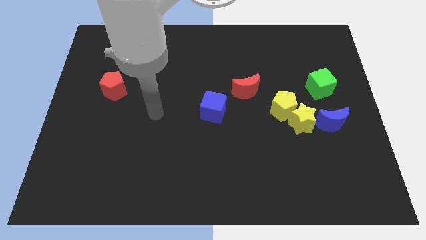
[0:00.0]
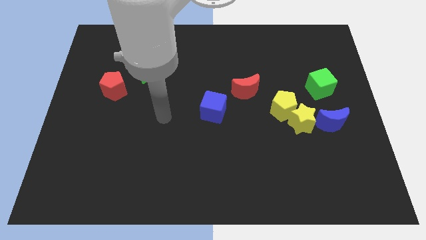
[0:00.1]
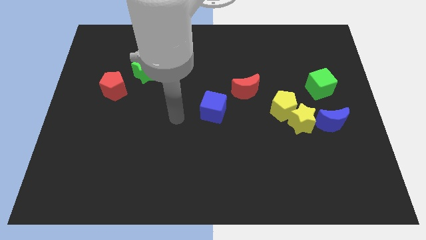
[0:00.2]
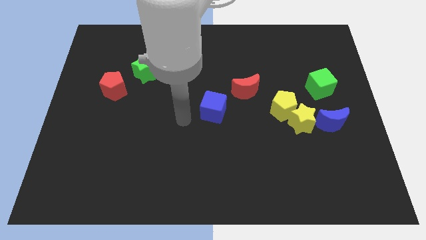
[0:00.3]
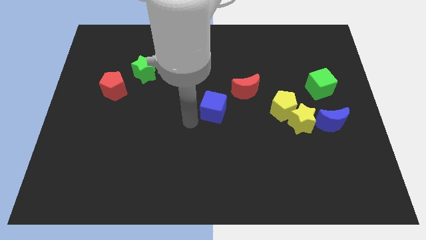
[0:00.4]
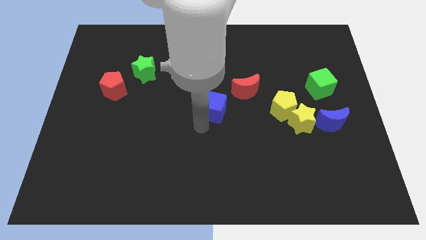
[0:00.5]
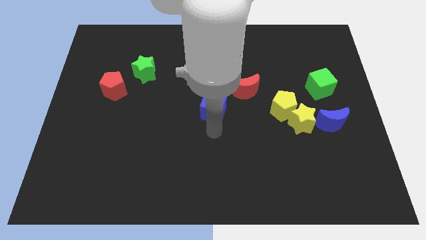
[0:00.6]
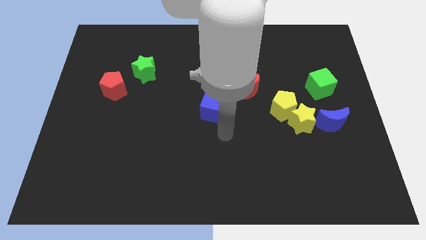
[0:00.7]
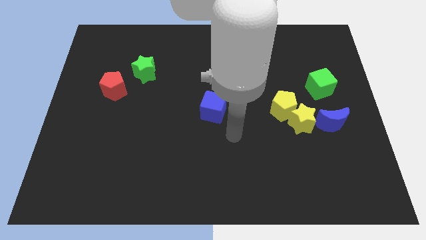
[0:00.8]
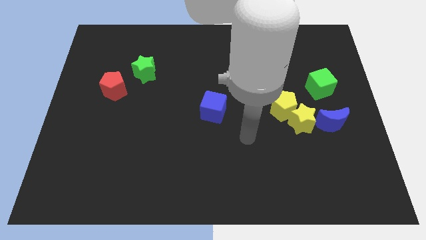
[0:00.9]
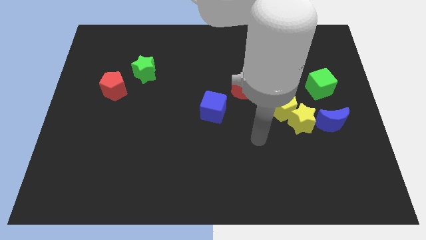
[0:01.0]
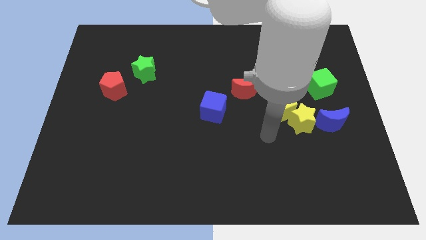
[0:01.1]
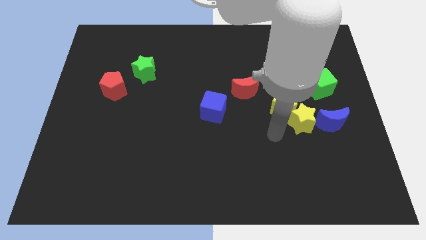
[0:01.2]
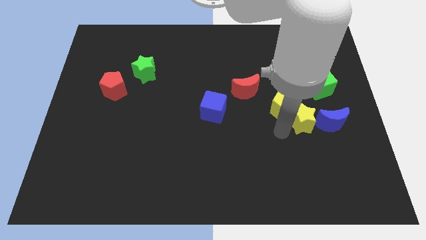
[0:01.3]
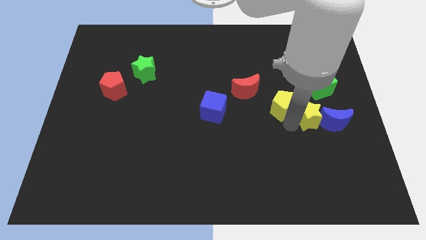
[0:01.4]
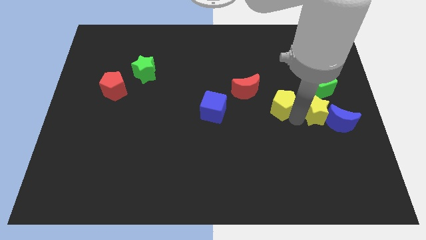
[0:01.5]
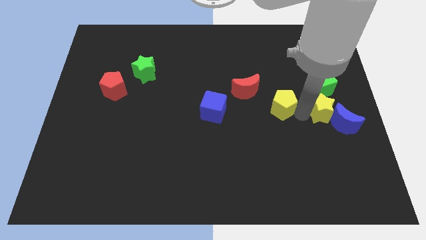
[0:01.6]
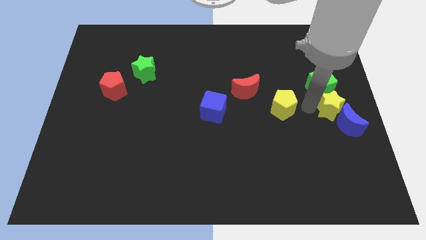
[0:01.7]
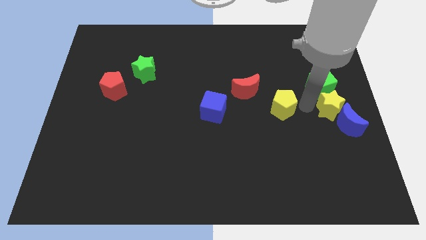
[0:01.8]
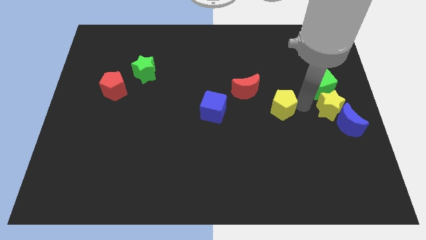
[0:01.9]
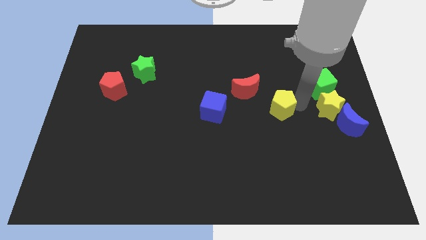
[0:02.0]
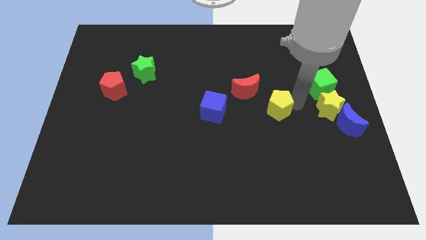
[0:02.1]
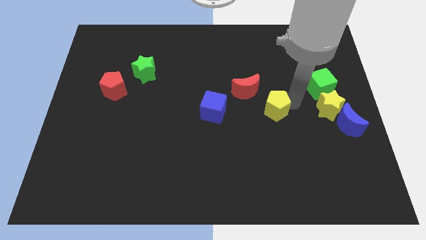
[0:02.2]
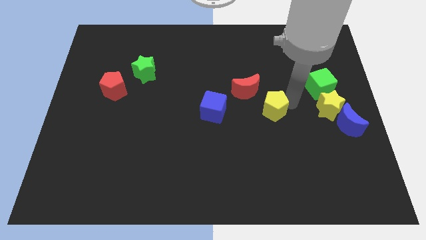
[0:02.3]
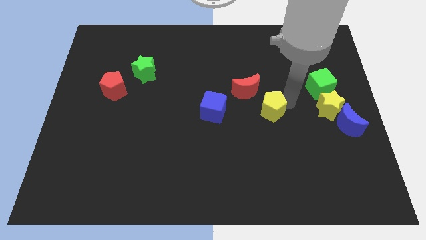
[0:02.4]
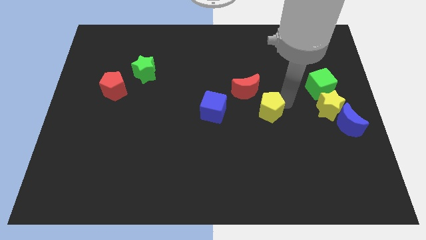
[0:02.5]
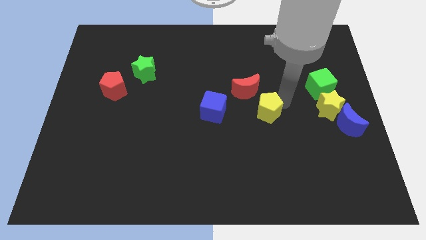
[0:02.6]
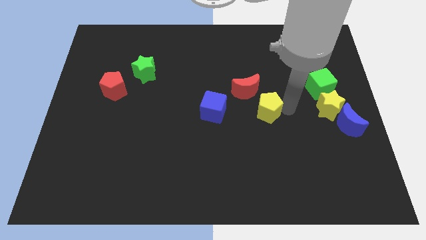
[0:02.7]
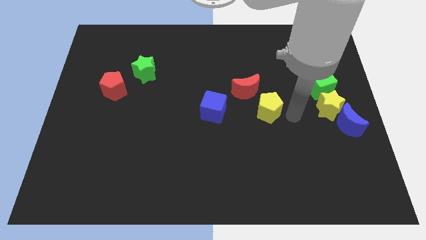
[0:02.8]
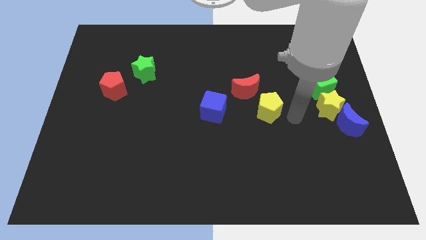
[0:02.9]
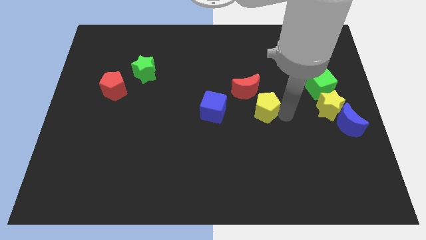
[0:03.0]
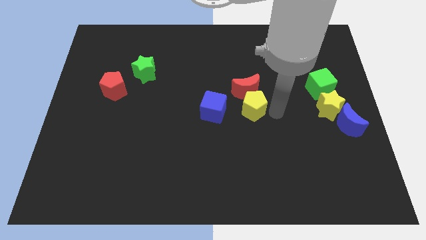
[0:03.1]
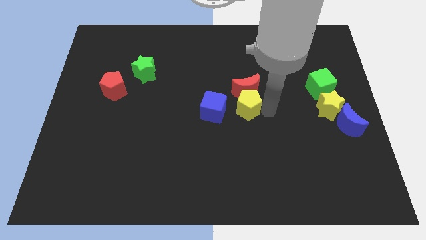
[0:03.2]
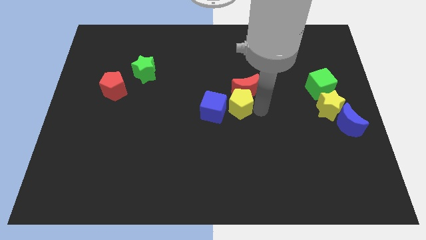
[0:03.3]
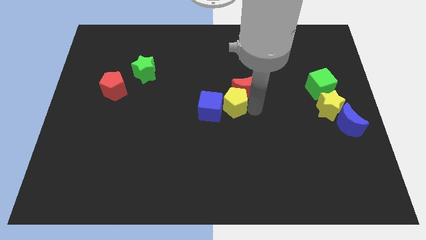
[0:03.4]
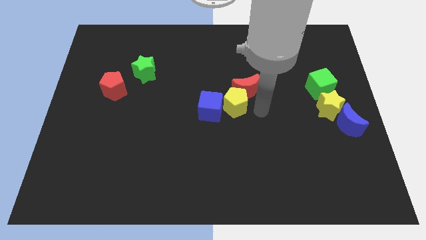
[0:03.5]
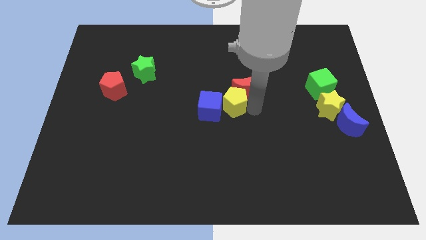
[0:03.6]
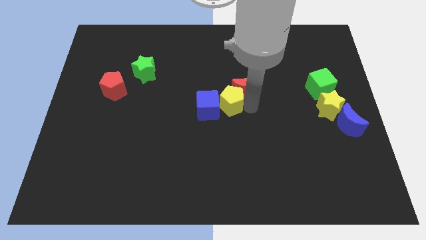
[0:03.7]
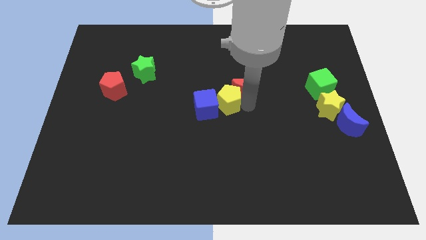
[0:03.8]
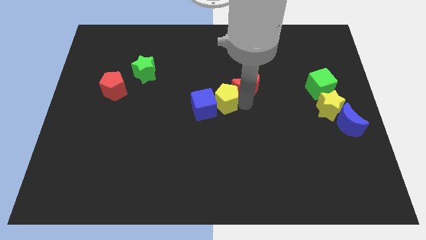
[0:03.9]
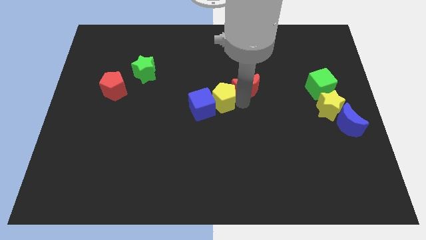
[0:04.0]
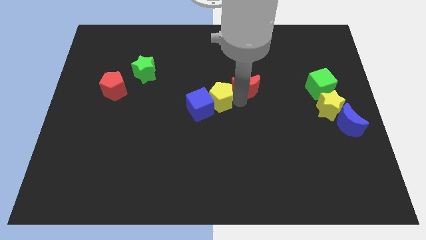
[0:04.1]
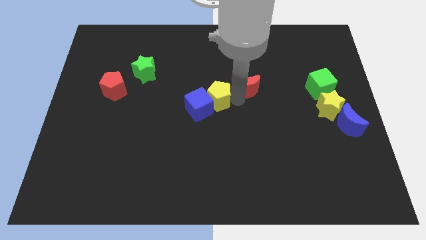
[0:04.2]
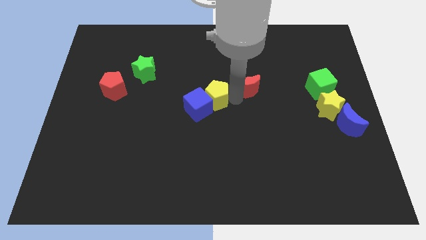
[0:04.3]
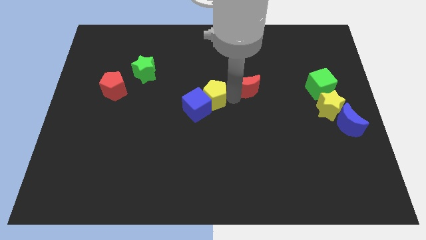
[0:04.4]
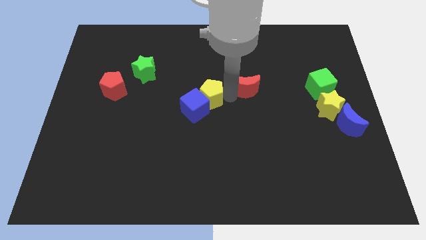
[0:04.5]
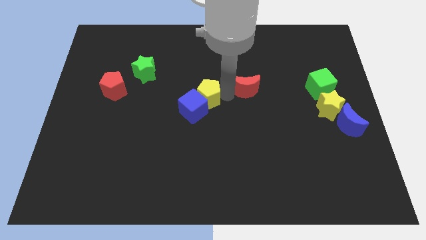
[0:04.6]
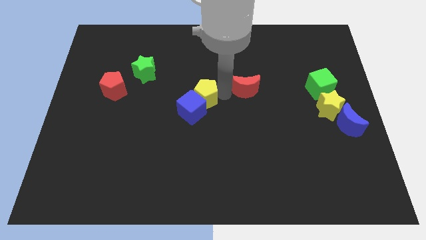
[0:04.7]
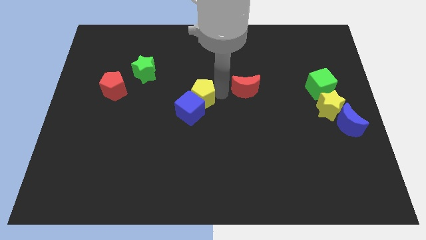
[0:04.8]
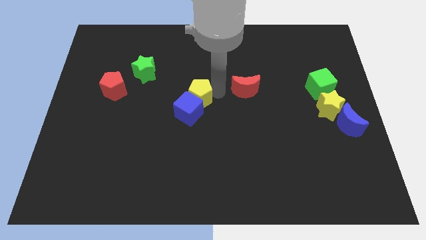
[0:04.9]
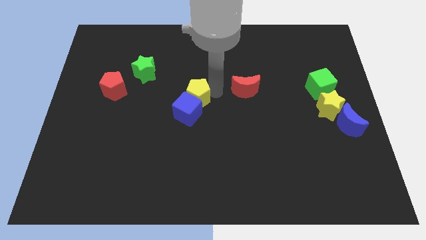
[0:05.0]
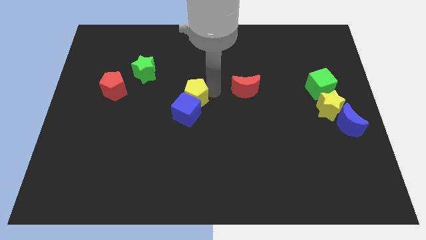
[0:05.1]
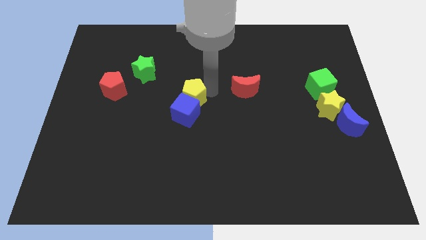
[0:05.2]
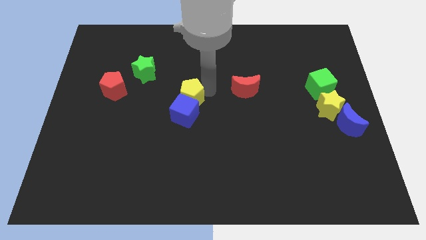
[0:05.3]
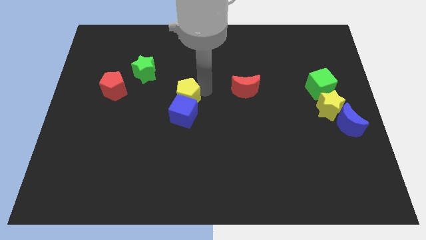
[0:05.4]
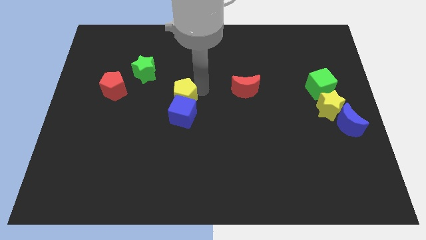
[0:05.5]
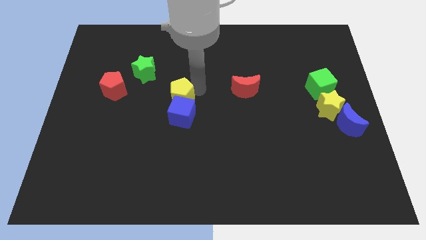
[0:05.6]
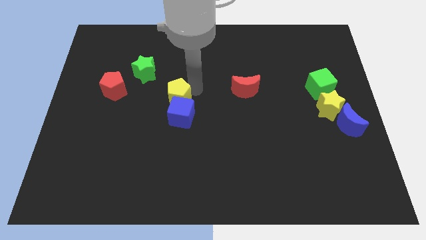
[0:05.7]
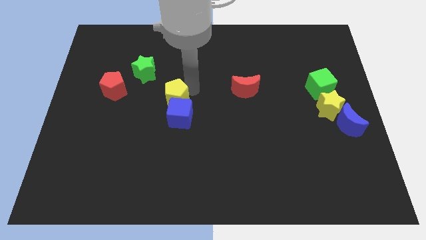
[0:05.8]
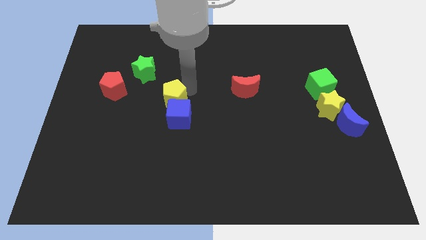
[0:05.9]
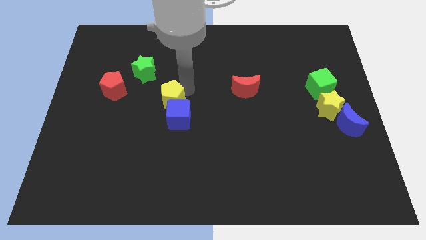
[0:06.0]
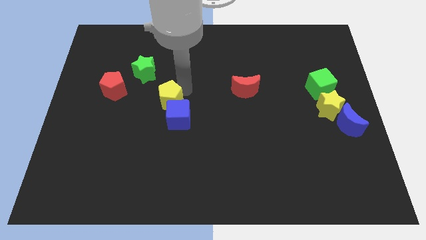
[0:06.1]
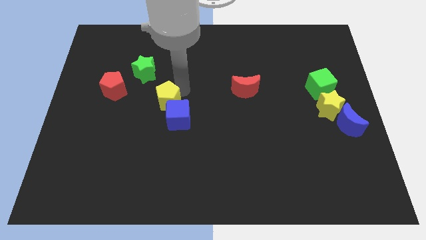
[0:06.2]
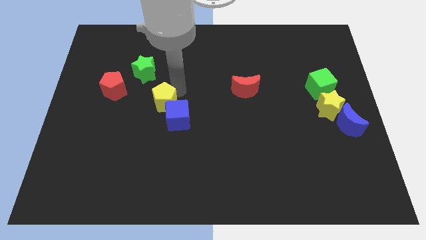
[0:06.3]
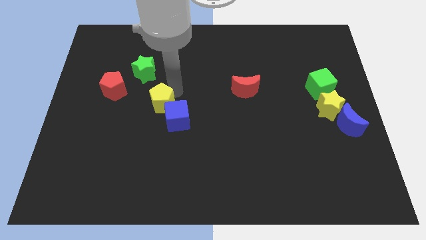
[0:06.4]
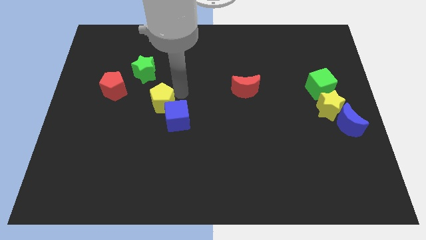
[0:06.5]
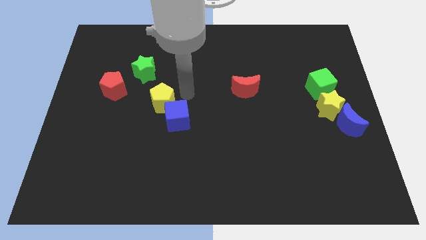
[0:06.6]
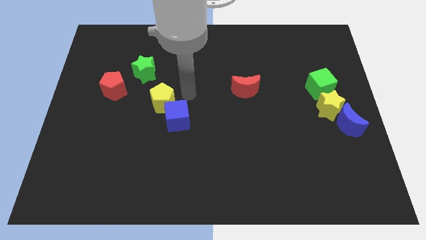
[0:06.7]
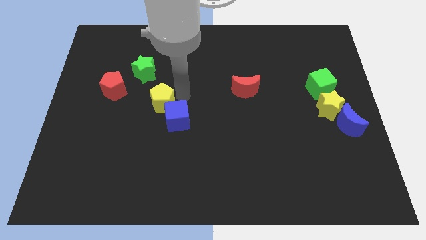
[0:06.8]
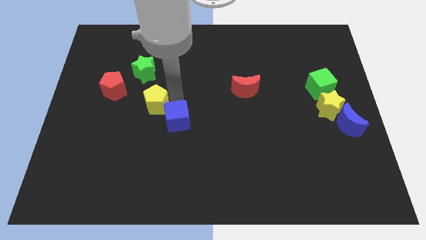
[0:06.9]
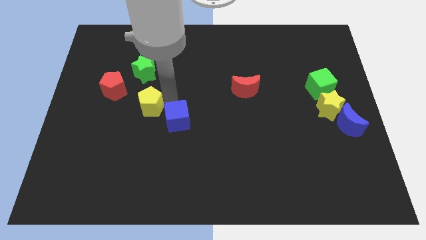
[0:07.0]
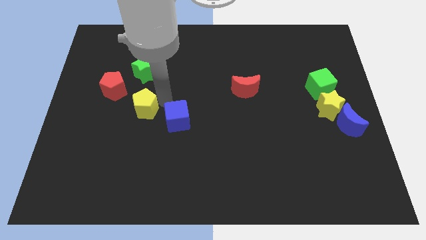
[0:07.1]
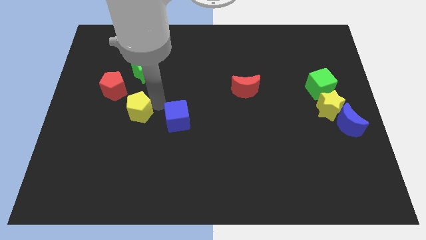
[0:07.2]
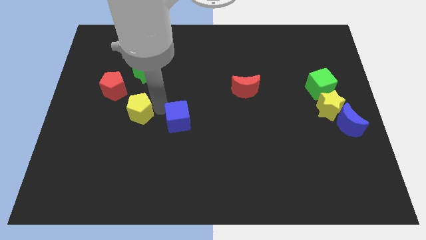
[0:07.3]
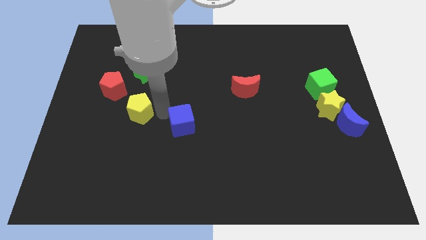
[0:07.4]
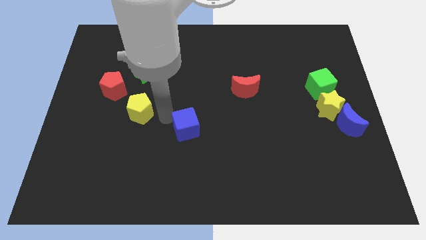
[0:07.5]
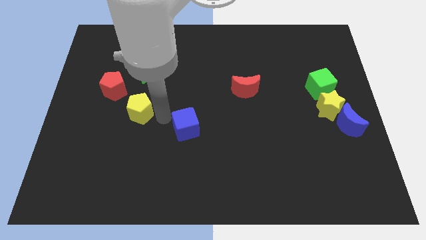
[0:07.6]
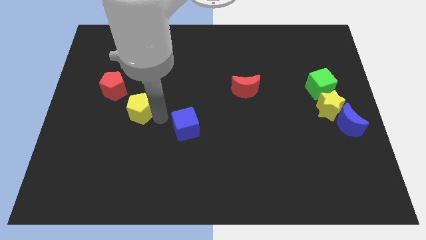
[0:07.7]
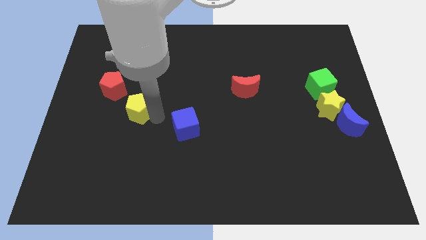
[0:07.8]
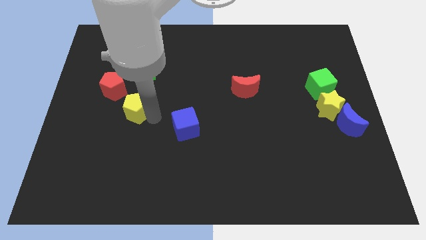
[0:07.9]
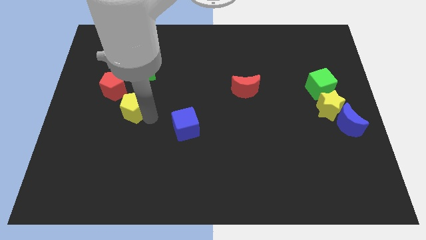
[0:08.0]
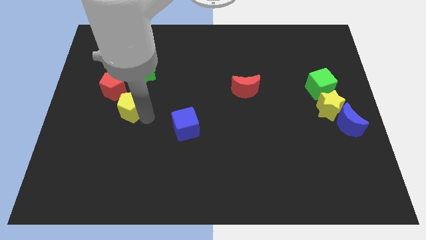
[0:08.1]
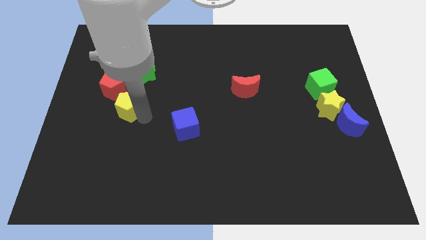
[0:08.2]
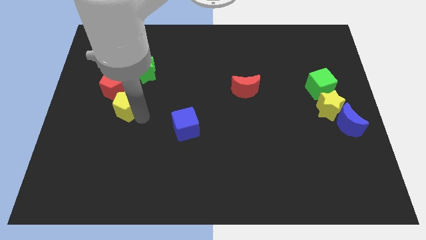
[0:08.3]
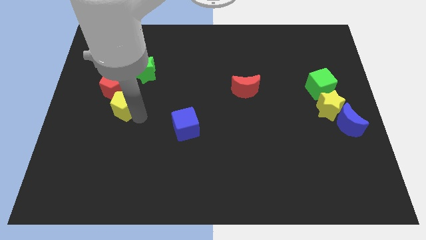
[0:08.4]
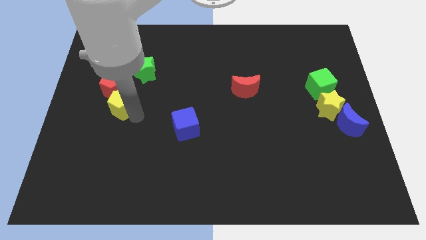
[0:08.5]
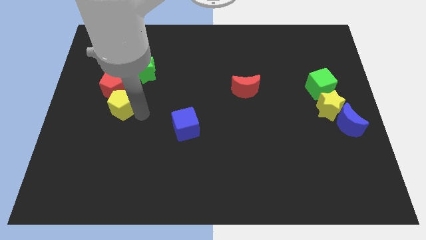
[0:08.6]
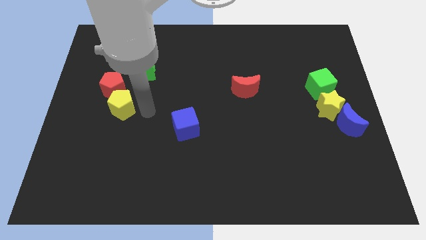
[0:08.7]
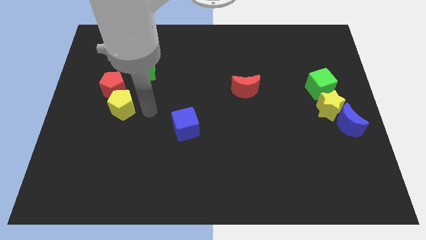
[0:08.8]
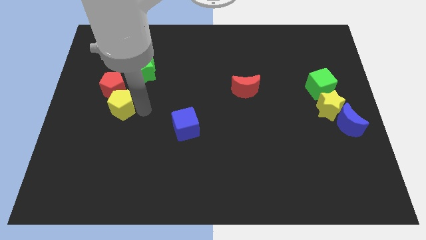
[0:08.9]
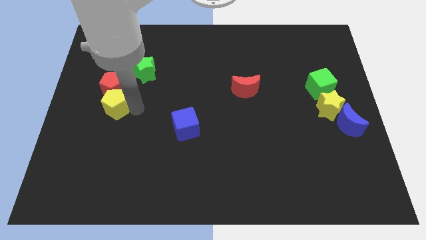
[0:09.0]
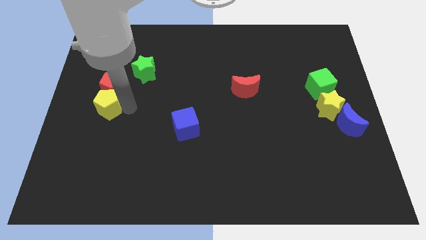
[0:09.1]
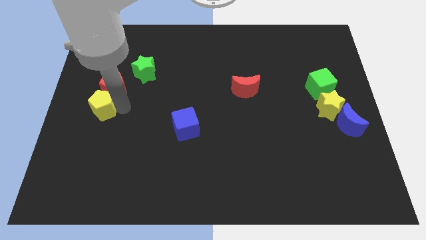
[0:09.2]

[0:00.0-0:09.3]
move the yellow pentagon to the center left
